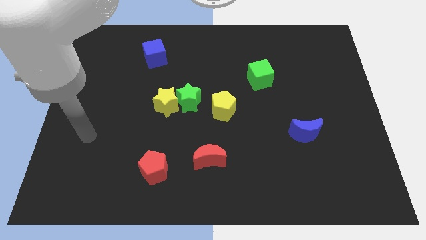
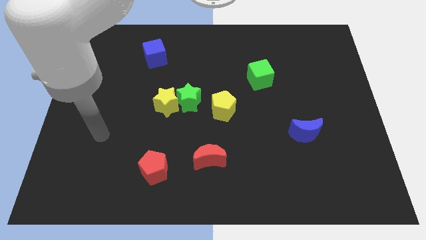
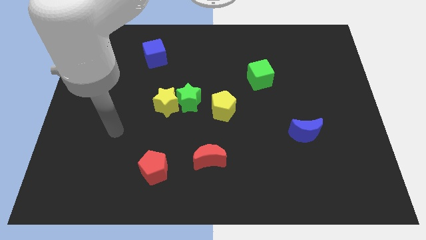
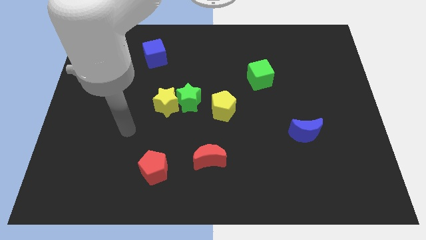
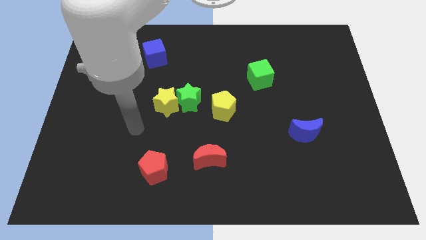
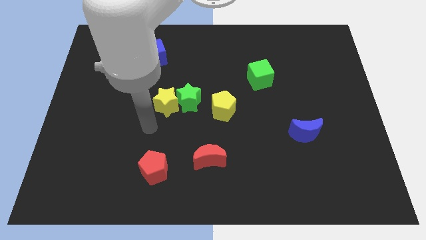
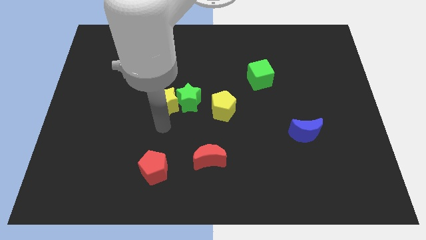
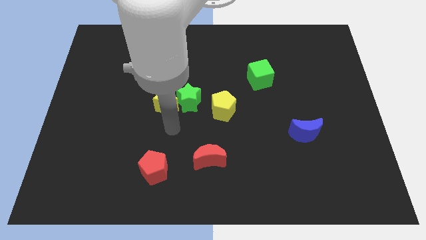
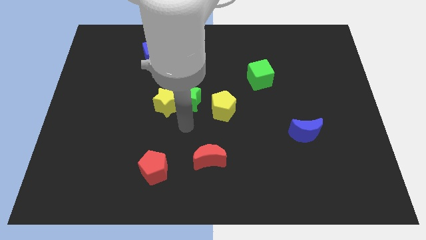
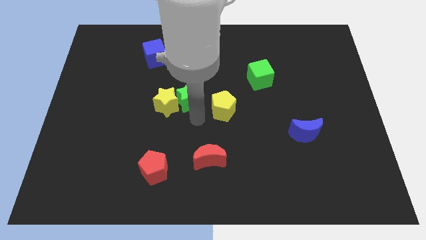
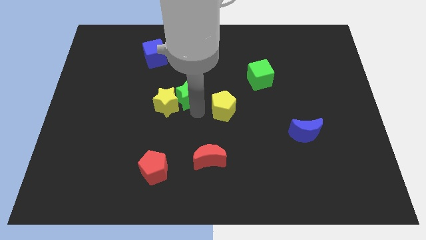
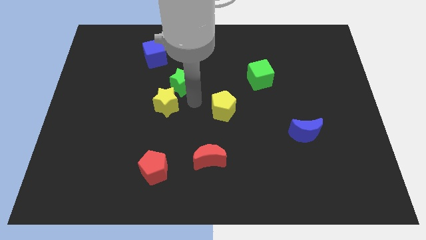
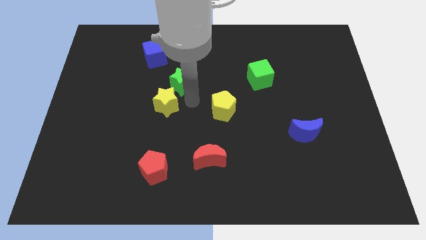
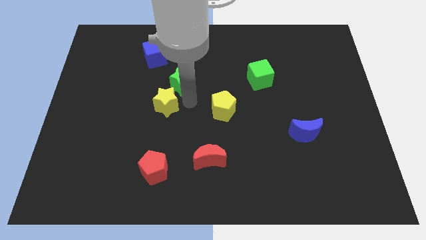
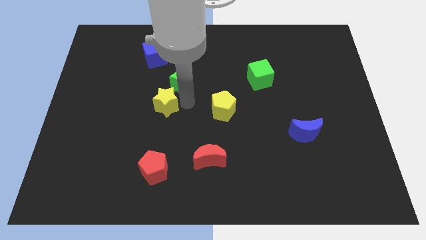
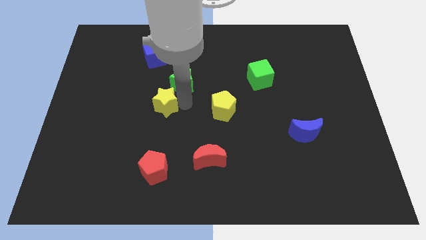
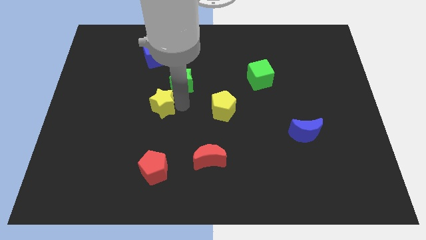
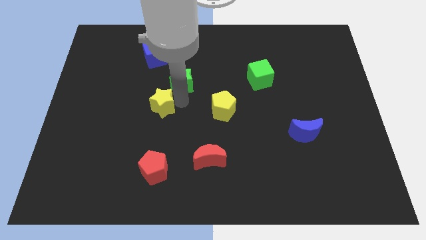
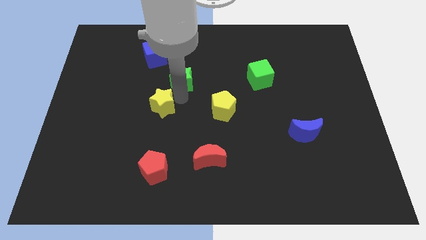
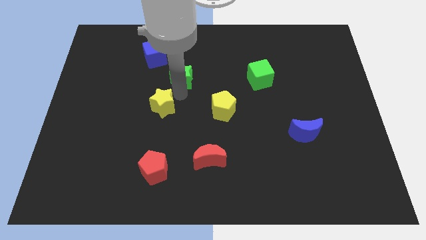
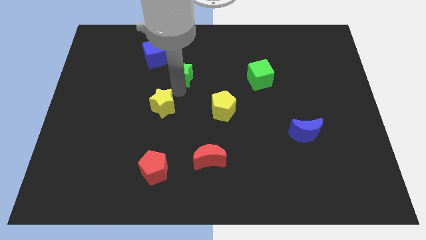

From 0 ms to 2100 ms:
move the yellow star away from the green star

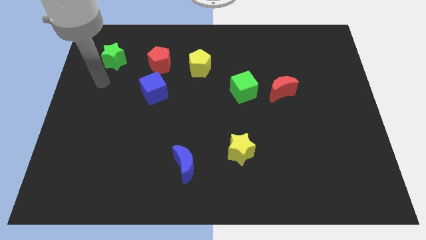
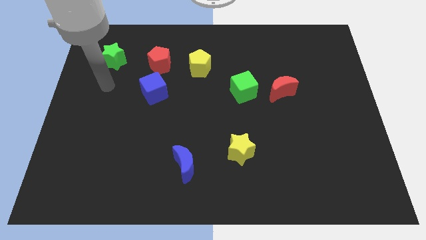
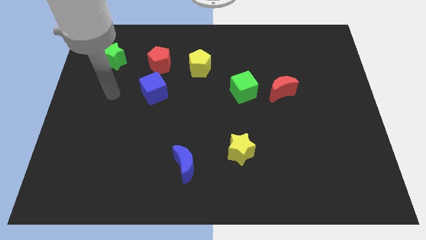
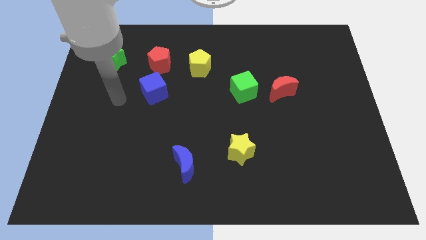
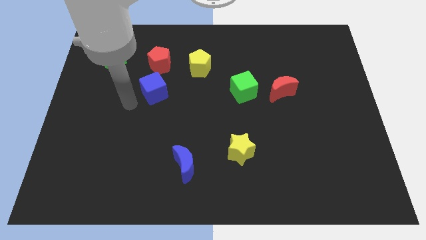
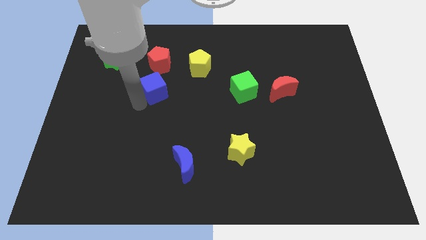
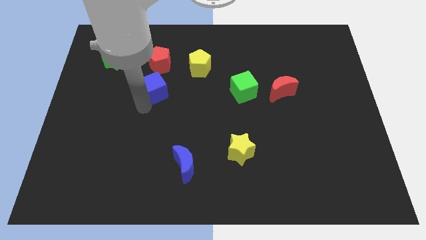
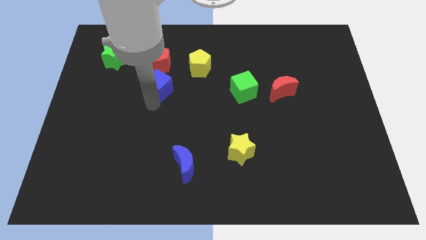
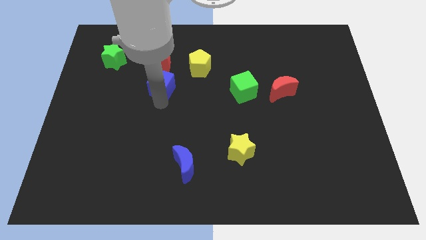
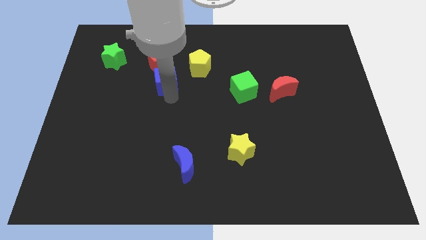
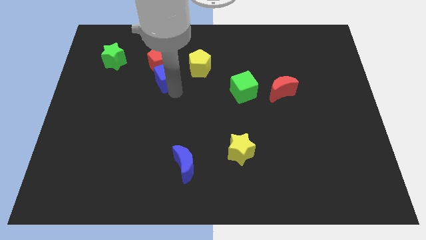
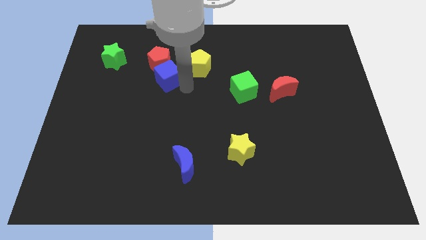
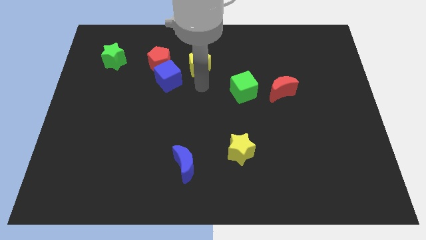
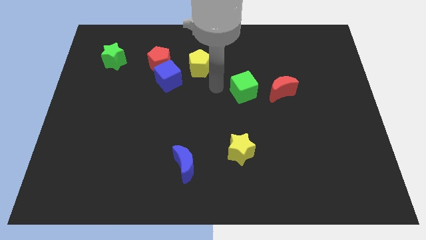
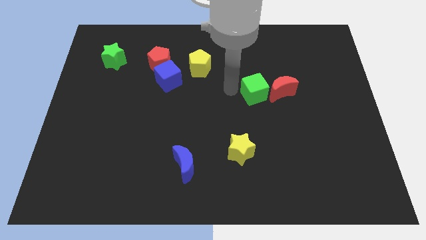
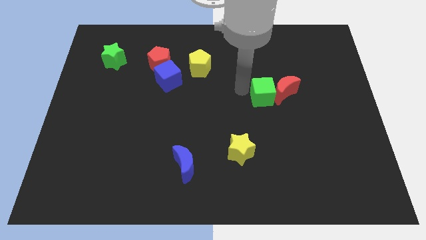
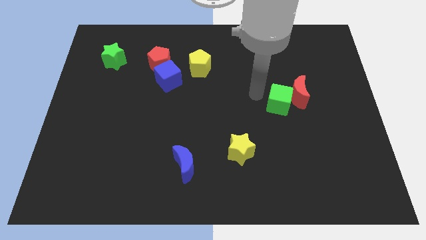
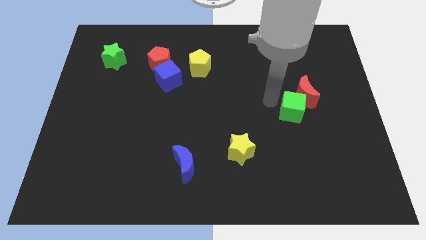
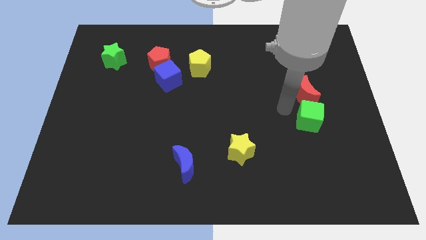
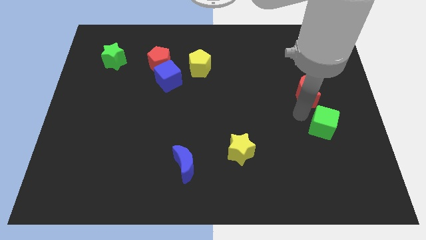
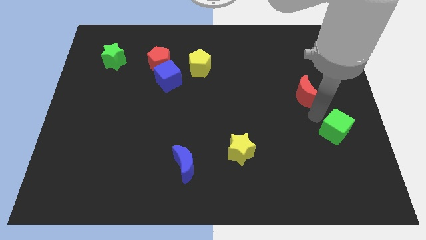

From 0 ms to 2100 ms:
separate the red moon from the green cube

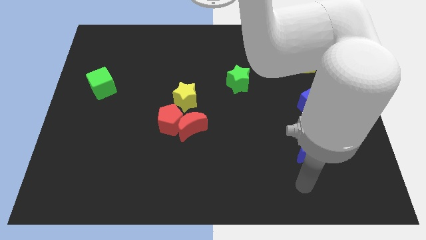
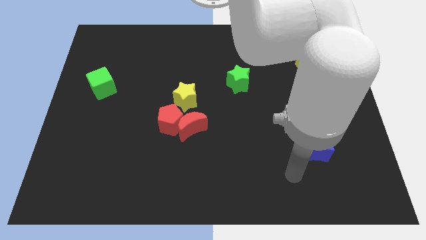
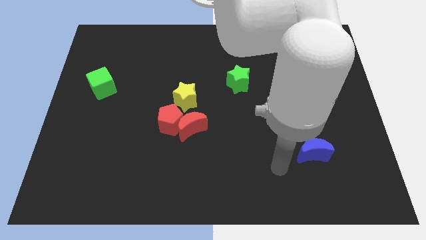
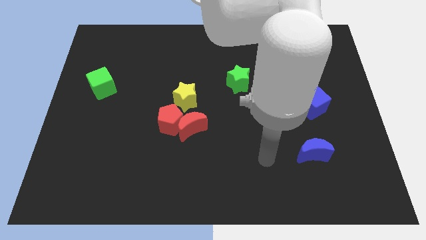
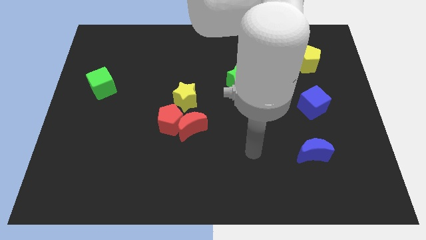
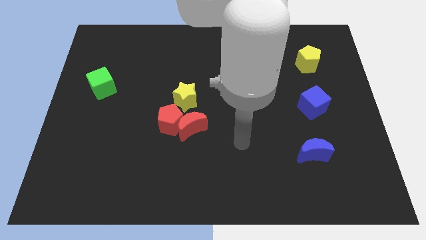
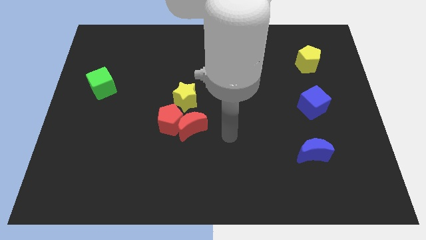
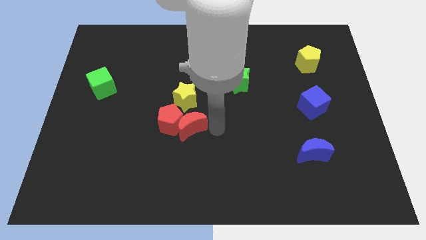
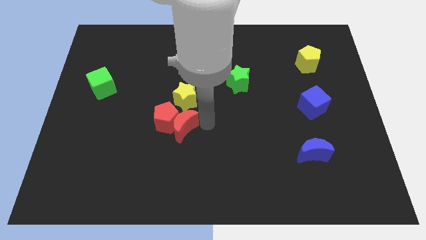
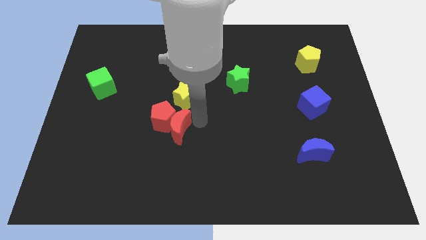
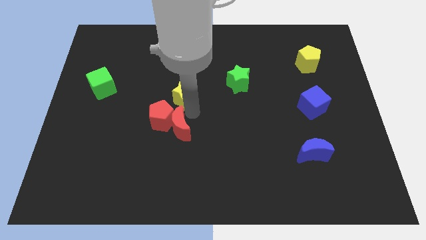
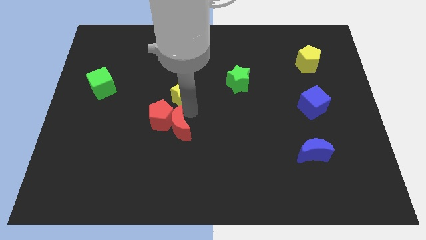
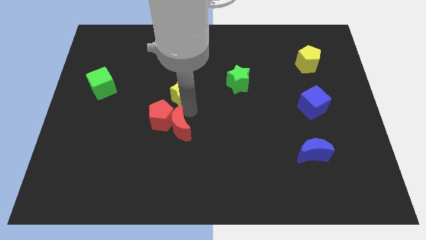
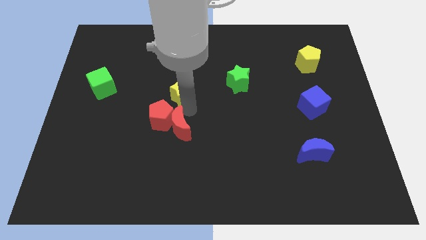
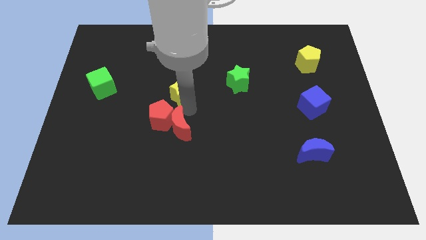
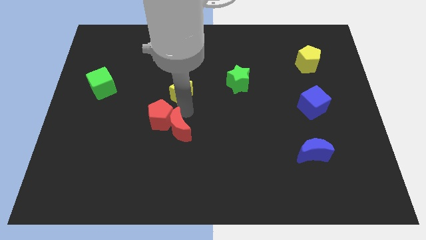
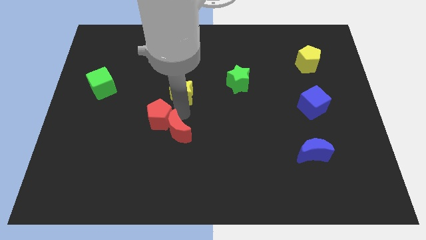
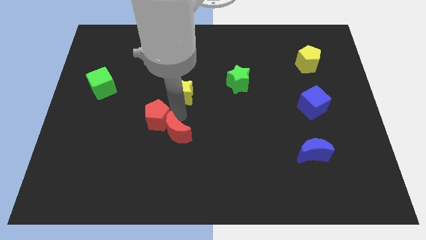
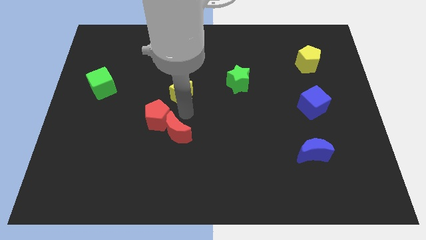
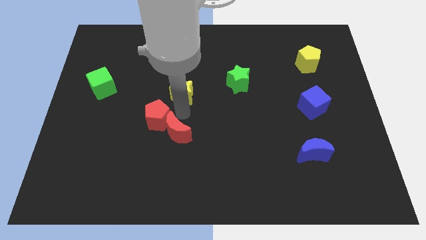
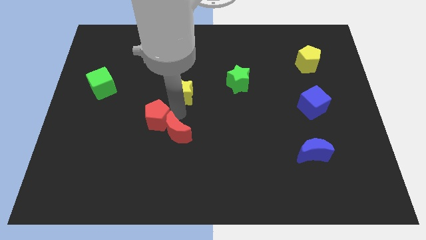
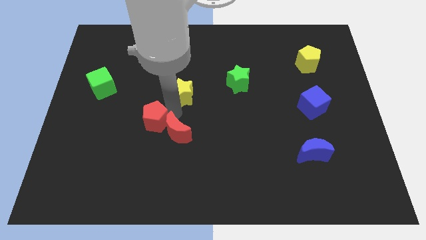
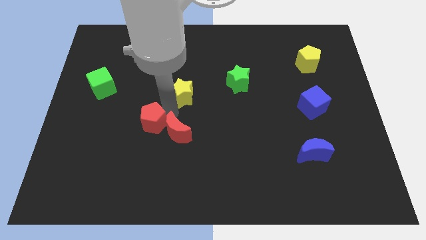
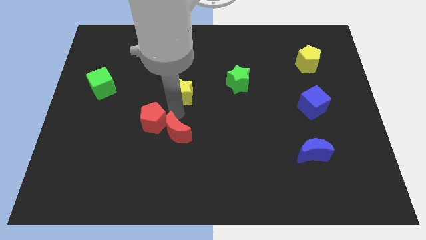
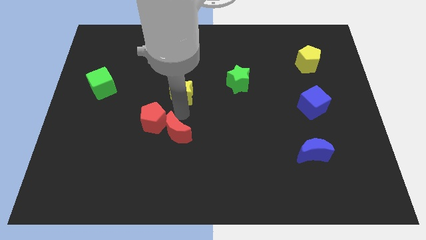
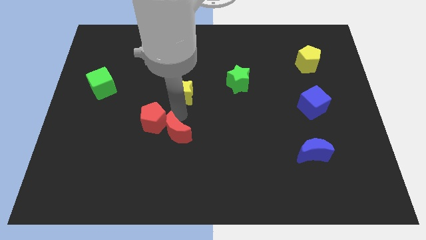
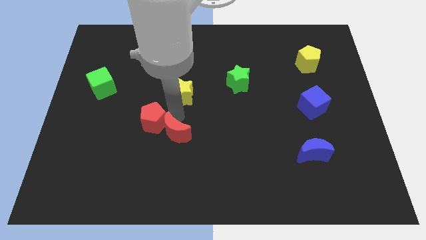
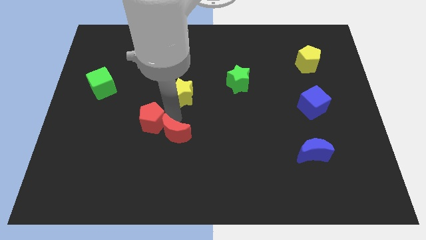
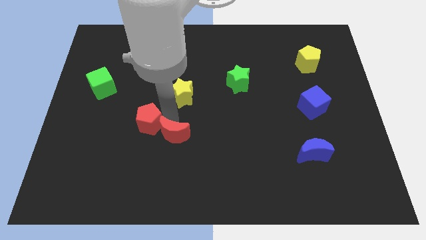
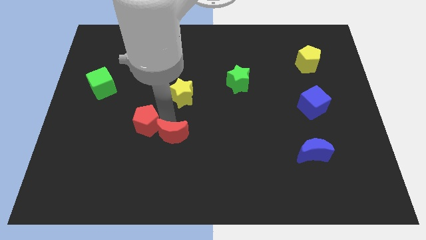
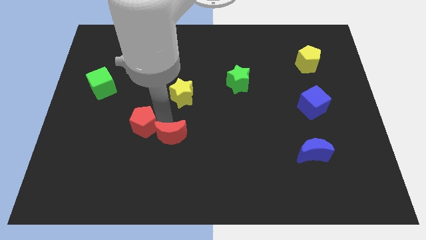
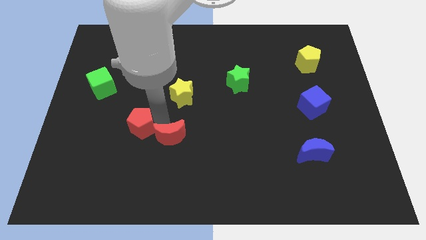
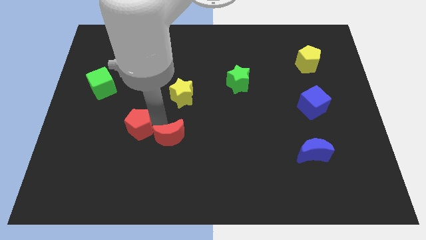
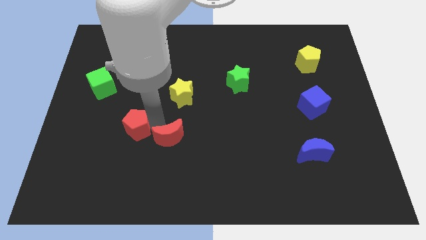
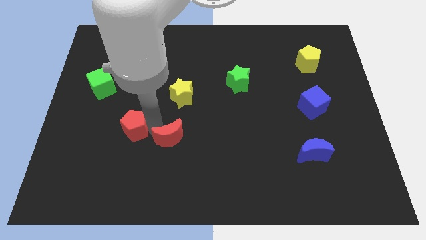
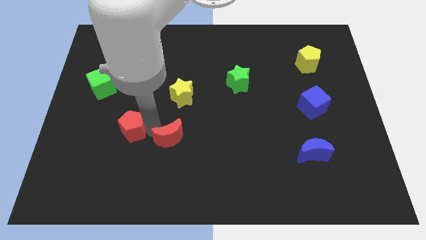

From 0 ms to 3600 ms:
separate the red pentagon from the red moon and yellow star

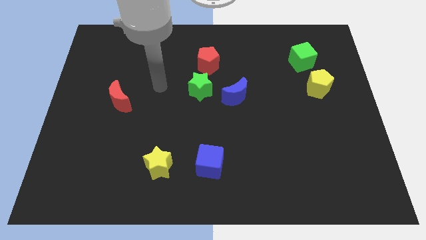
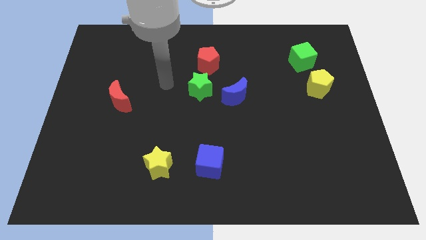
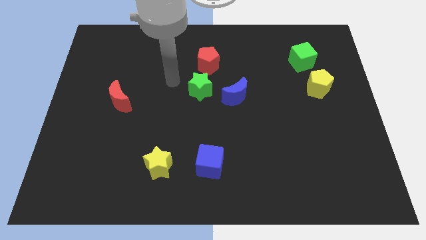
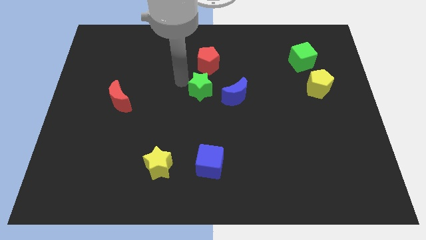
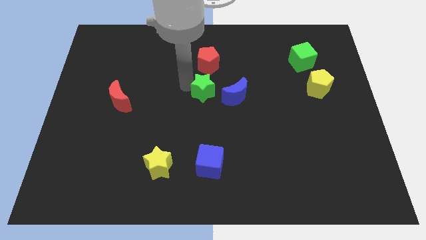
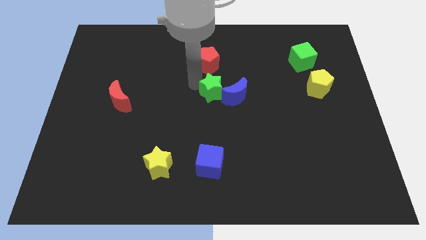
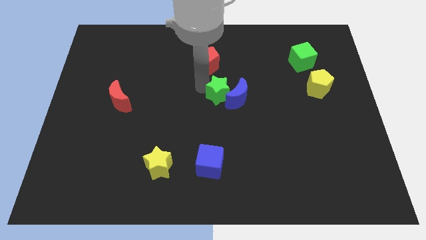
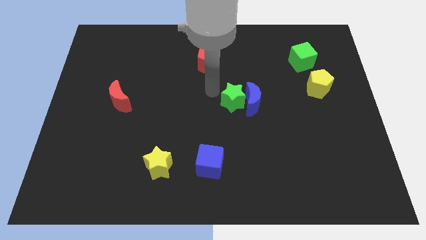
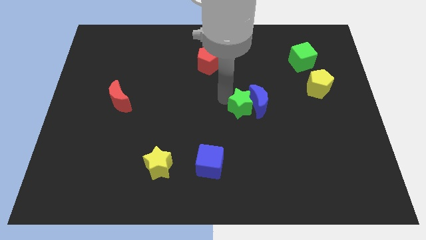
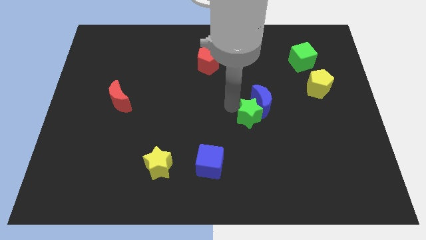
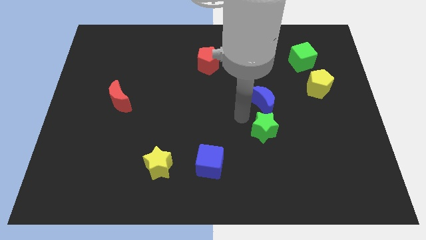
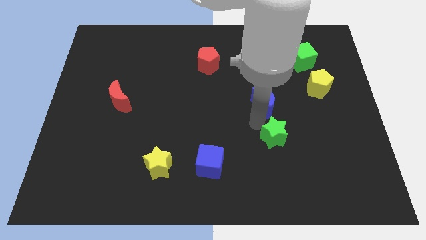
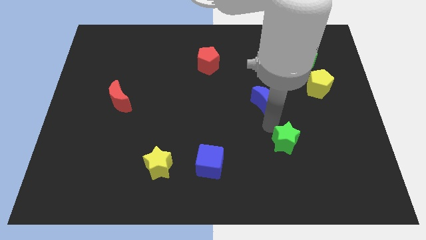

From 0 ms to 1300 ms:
separate the blue moon from the green star

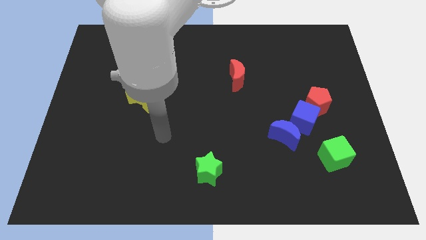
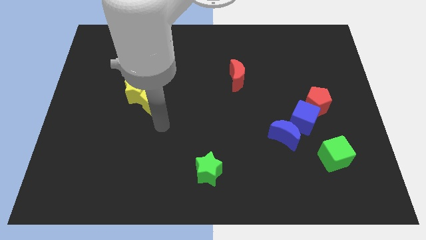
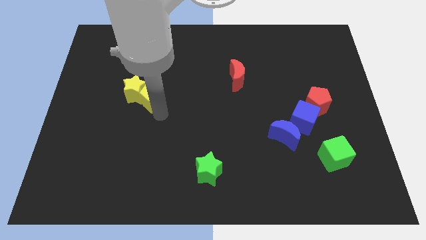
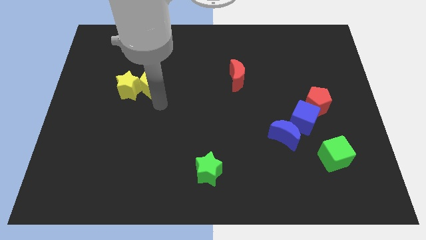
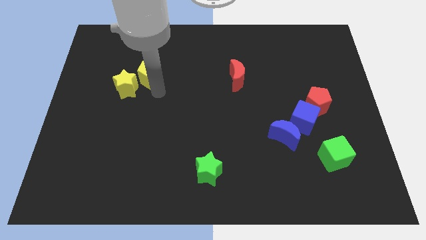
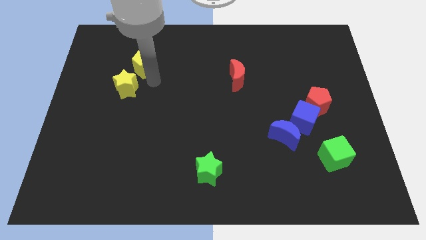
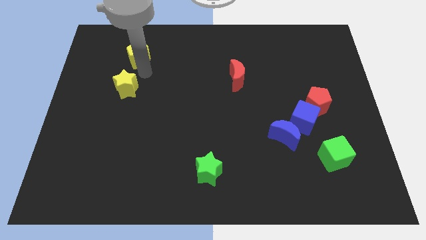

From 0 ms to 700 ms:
separate the yellow star from the yellow pentagon
